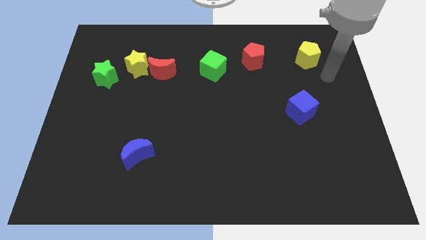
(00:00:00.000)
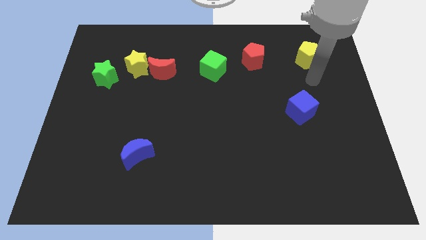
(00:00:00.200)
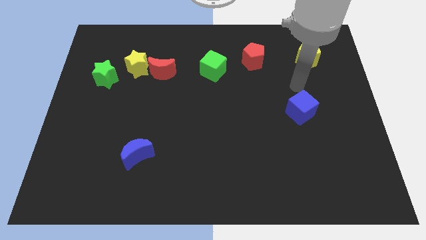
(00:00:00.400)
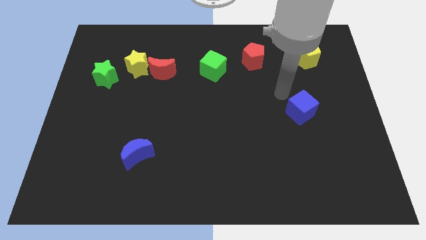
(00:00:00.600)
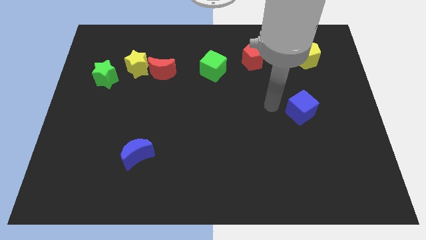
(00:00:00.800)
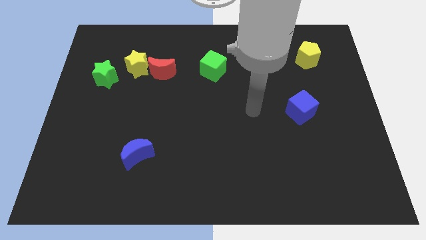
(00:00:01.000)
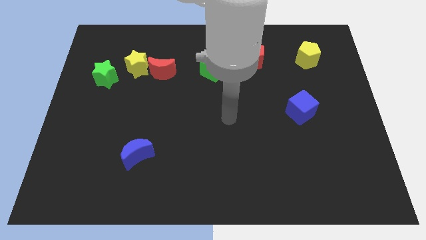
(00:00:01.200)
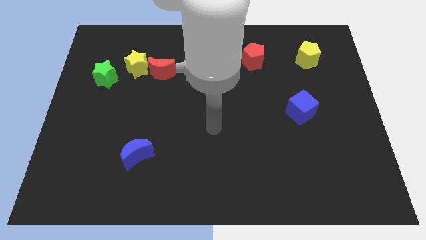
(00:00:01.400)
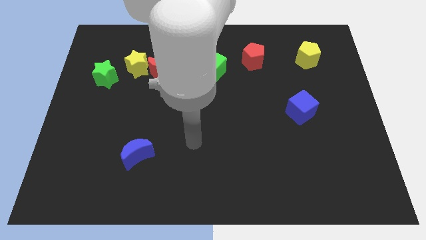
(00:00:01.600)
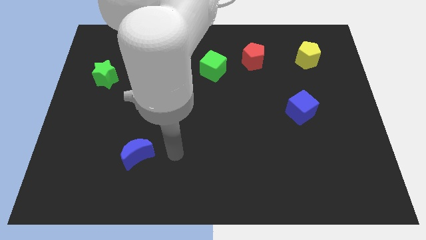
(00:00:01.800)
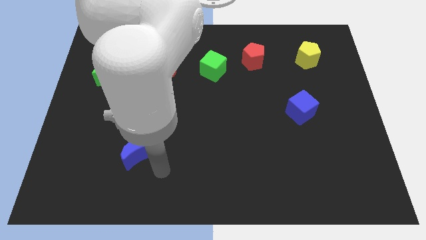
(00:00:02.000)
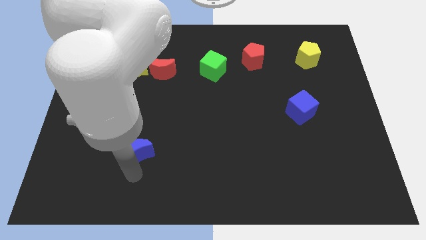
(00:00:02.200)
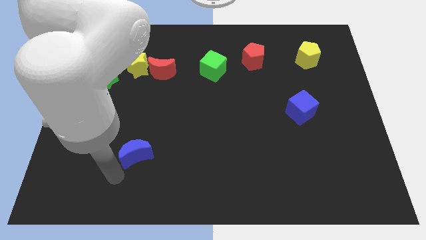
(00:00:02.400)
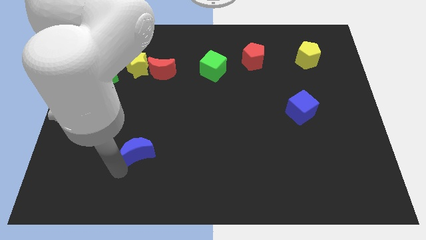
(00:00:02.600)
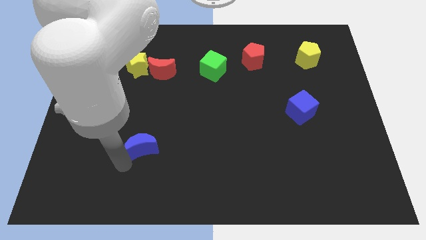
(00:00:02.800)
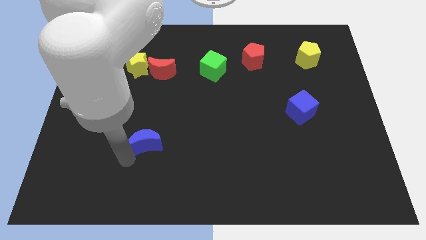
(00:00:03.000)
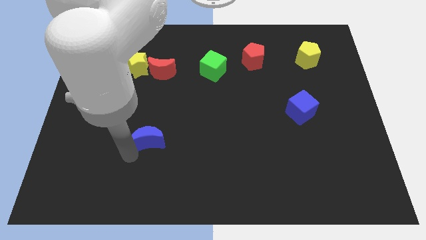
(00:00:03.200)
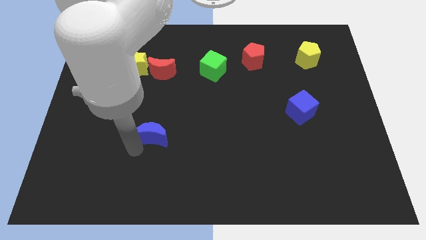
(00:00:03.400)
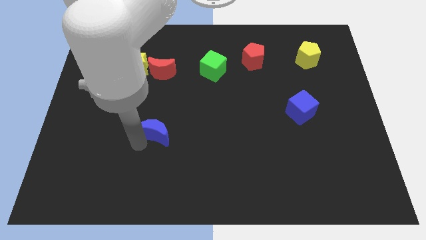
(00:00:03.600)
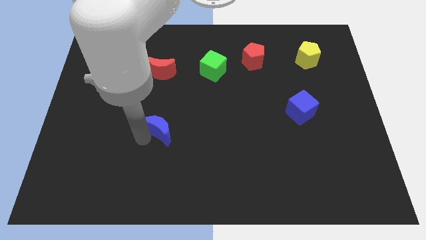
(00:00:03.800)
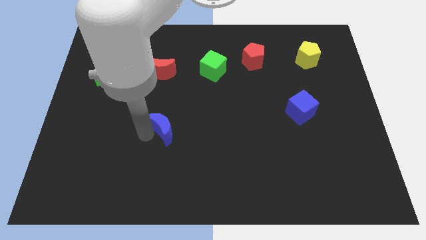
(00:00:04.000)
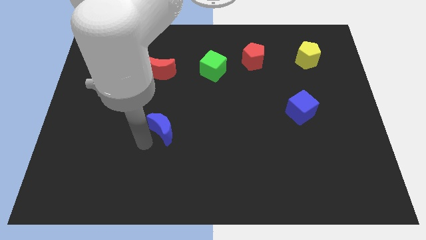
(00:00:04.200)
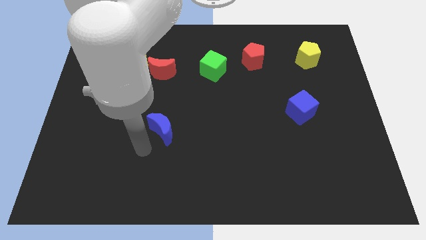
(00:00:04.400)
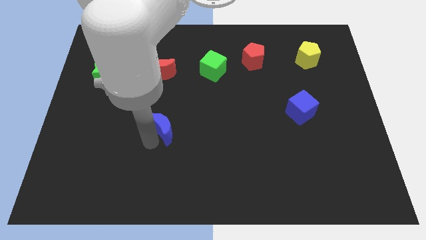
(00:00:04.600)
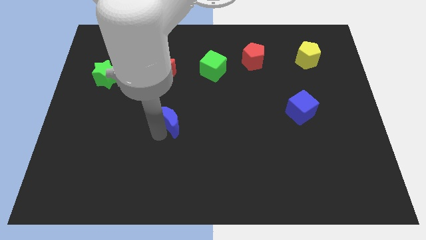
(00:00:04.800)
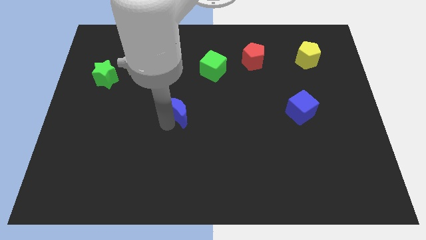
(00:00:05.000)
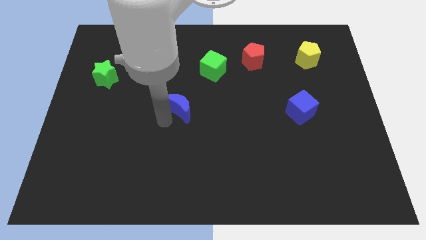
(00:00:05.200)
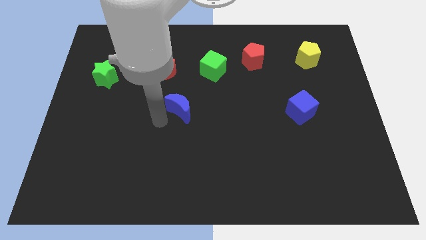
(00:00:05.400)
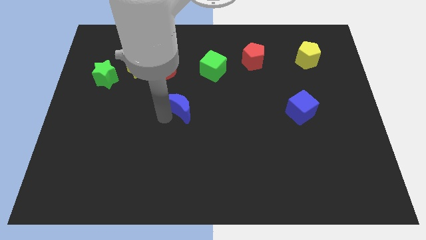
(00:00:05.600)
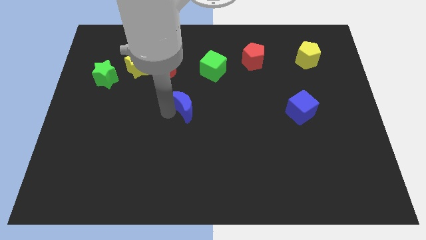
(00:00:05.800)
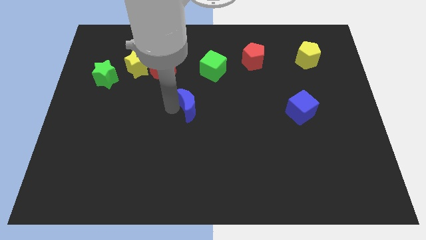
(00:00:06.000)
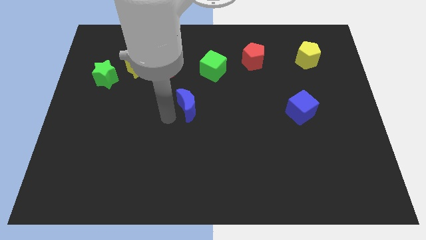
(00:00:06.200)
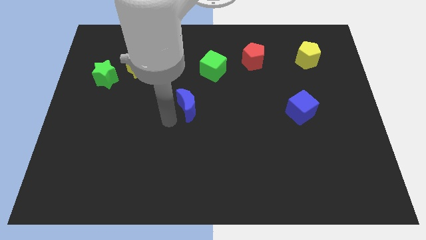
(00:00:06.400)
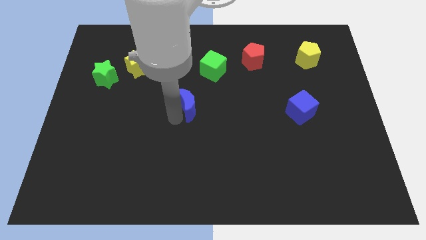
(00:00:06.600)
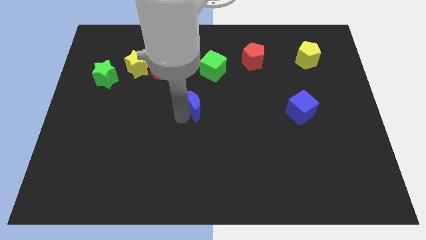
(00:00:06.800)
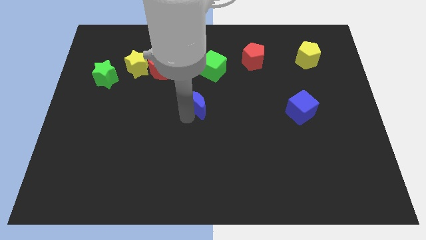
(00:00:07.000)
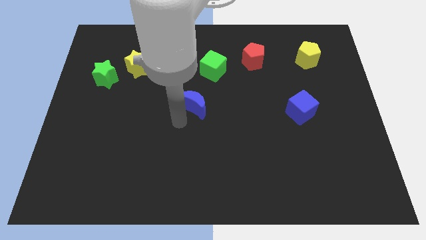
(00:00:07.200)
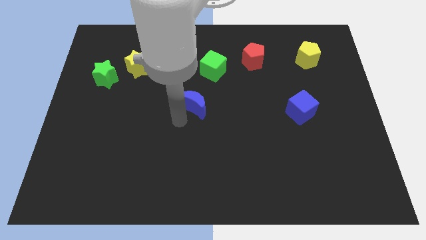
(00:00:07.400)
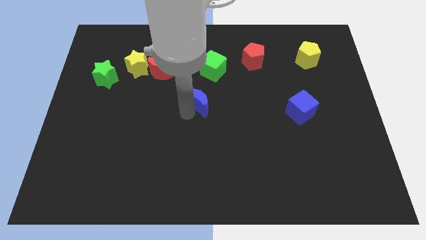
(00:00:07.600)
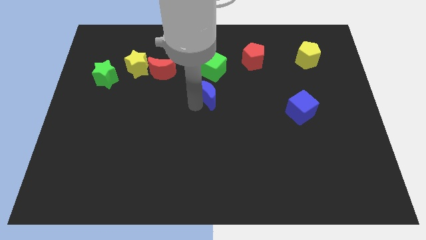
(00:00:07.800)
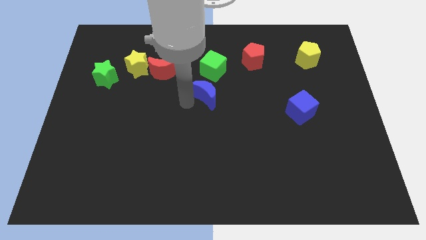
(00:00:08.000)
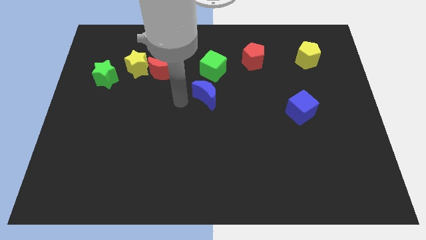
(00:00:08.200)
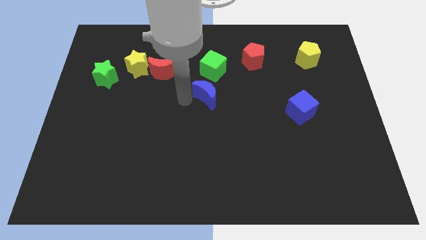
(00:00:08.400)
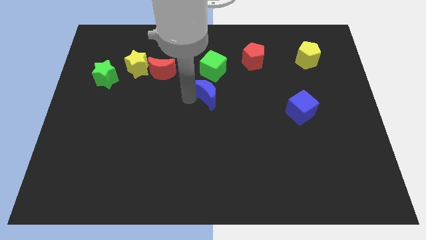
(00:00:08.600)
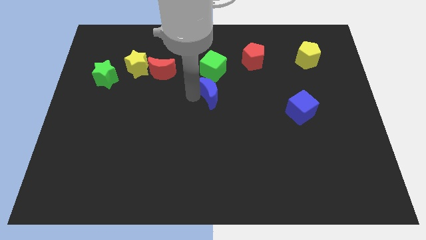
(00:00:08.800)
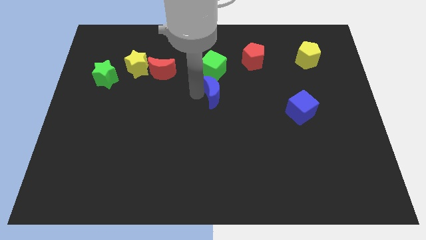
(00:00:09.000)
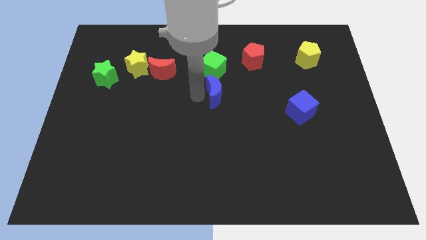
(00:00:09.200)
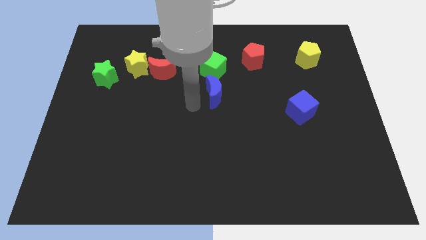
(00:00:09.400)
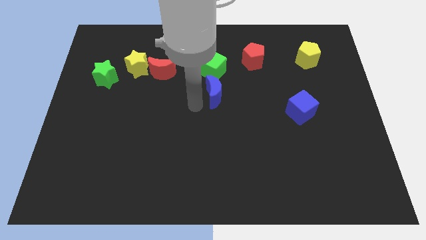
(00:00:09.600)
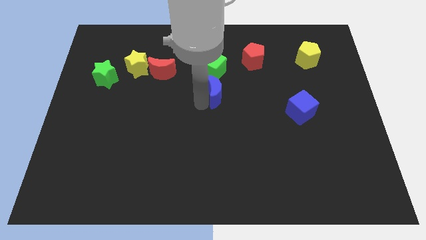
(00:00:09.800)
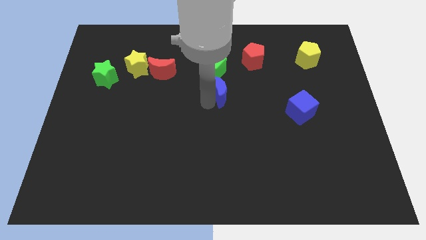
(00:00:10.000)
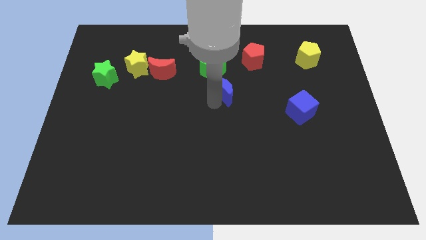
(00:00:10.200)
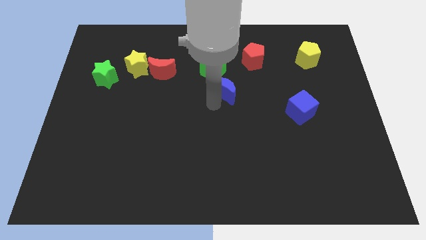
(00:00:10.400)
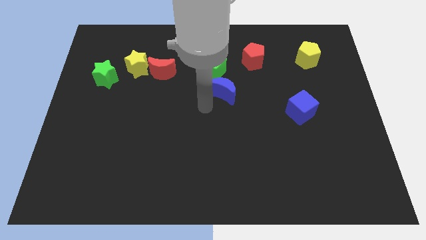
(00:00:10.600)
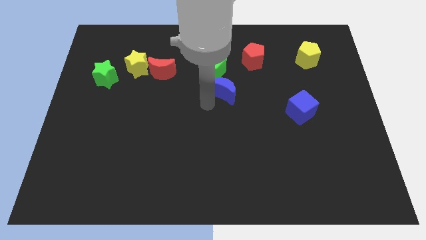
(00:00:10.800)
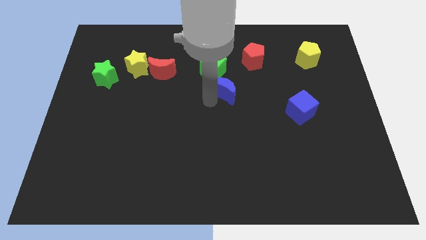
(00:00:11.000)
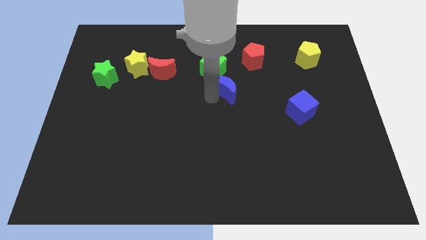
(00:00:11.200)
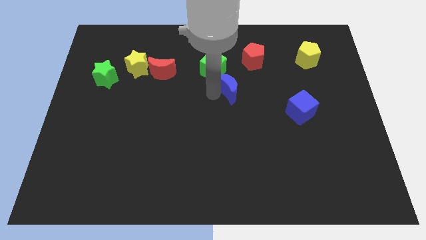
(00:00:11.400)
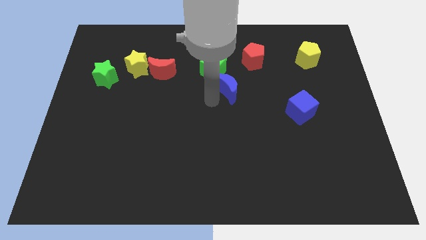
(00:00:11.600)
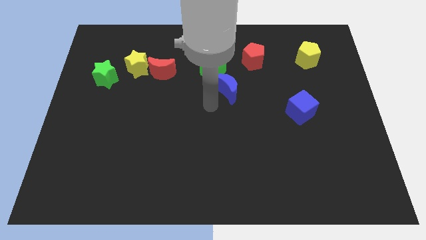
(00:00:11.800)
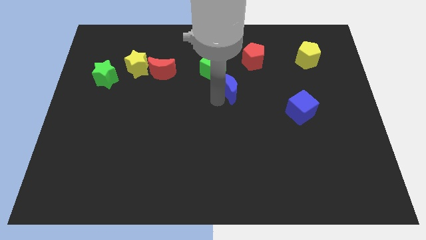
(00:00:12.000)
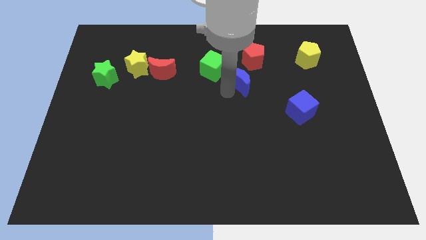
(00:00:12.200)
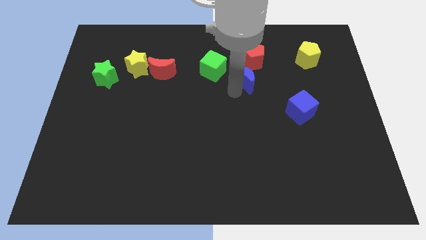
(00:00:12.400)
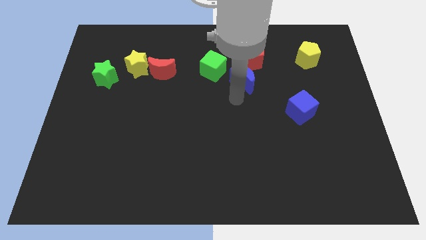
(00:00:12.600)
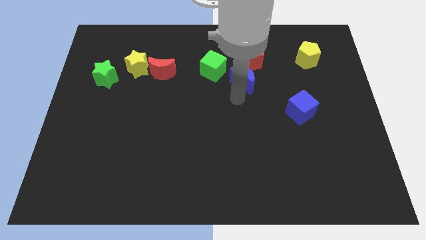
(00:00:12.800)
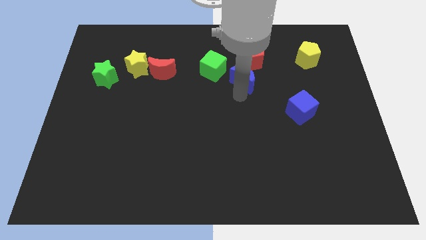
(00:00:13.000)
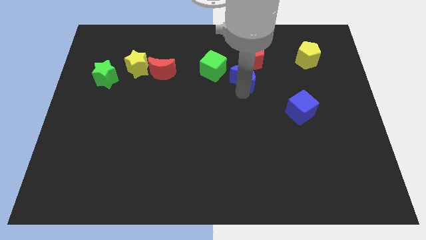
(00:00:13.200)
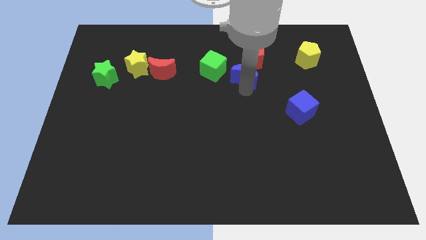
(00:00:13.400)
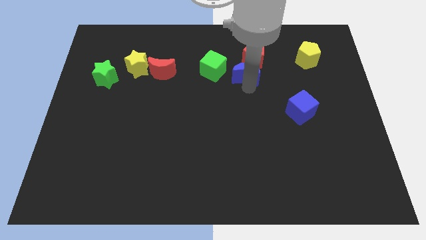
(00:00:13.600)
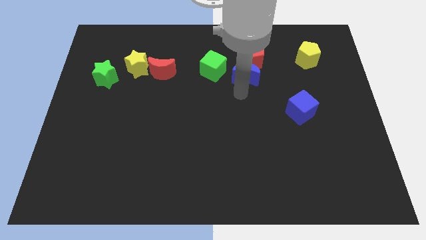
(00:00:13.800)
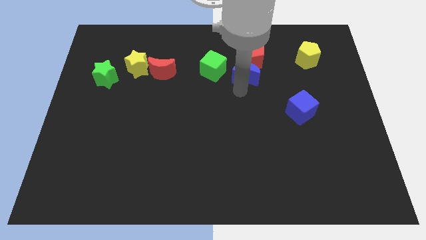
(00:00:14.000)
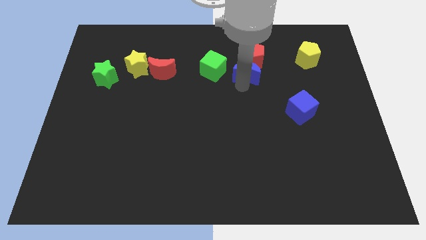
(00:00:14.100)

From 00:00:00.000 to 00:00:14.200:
slide the blue moon to the red pentagon
